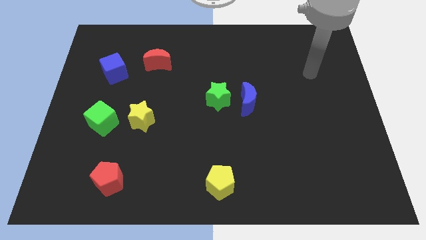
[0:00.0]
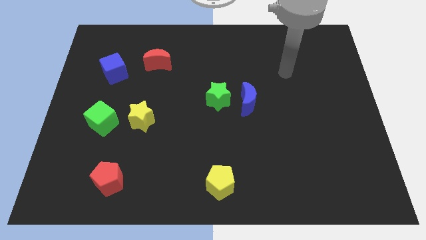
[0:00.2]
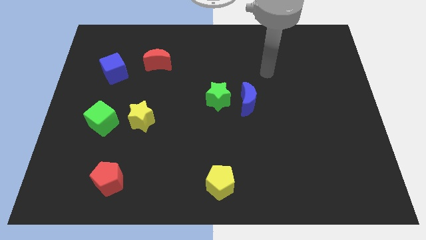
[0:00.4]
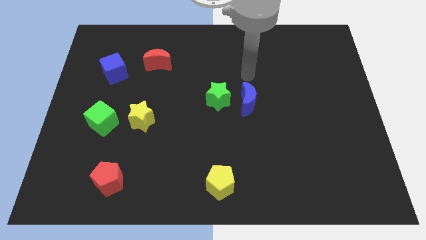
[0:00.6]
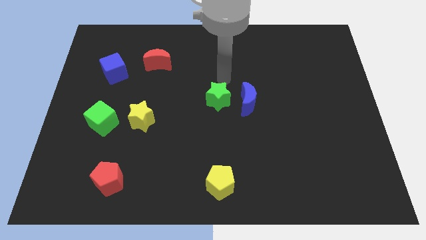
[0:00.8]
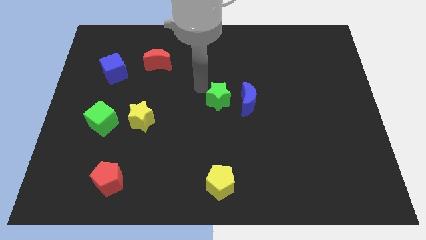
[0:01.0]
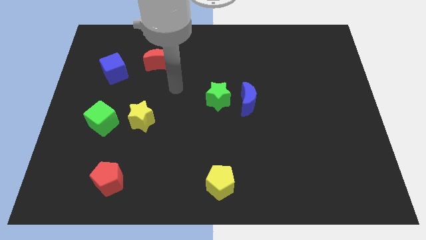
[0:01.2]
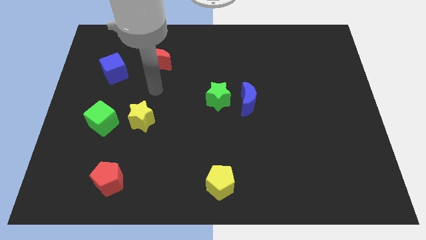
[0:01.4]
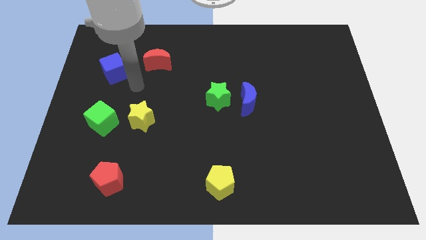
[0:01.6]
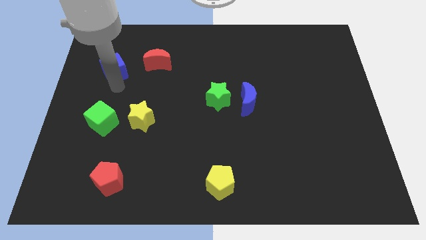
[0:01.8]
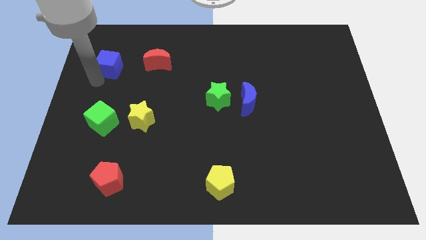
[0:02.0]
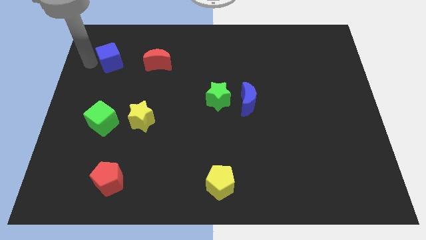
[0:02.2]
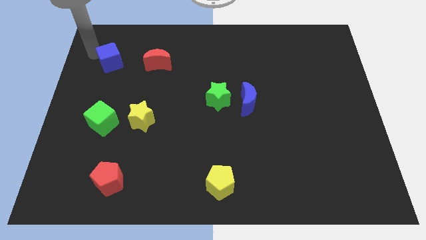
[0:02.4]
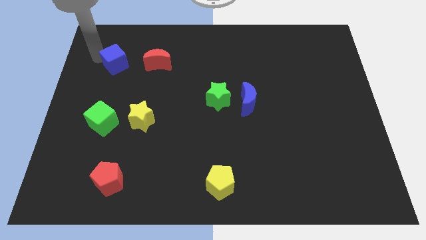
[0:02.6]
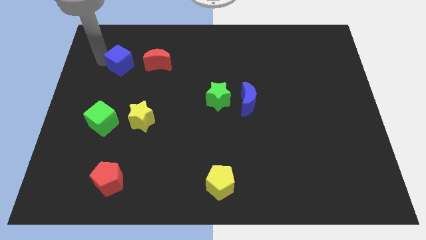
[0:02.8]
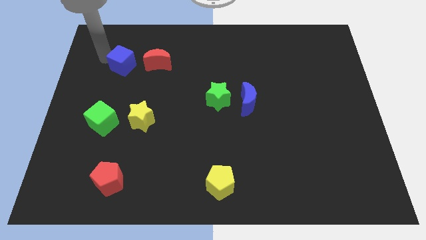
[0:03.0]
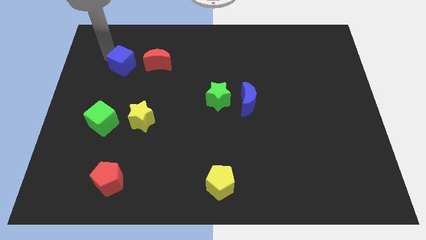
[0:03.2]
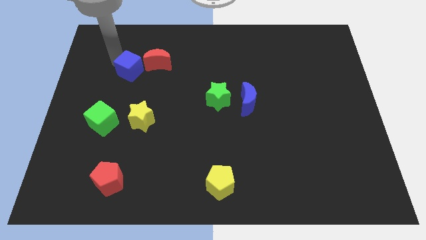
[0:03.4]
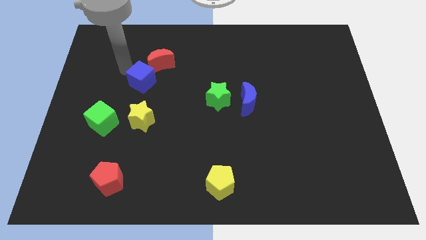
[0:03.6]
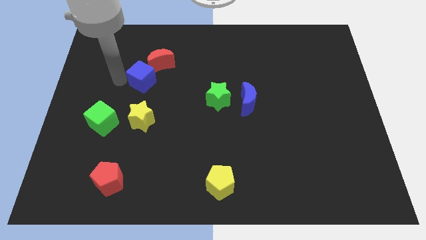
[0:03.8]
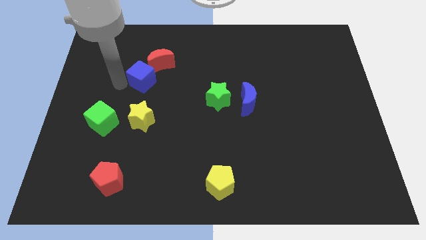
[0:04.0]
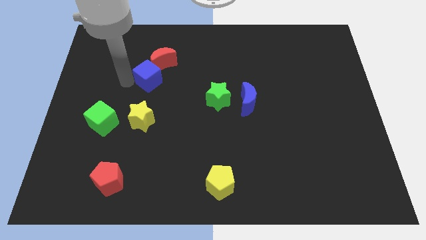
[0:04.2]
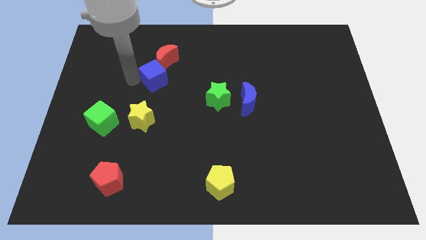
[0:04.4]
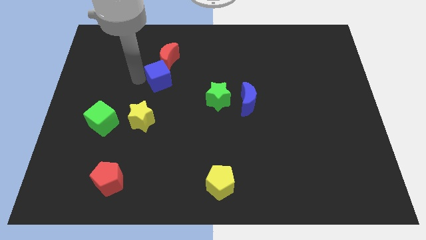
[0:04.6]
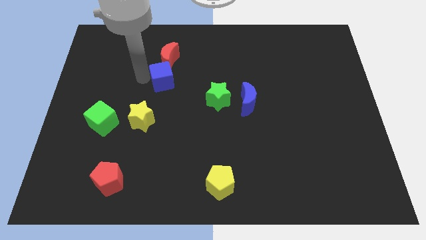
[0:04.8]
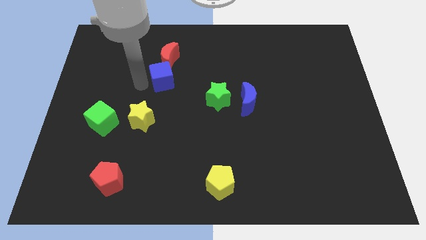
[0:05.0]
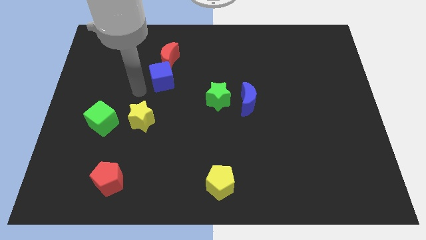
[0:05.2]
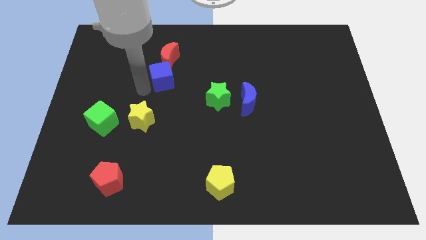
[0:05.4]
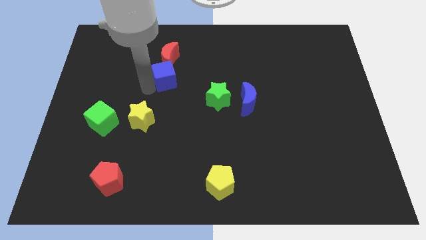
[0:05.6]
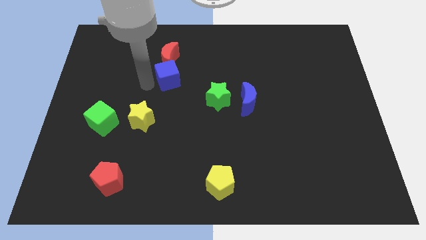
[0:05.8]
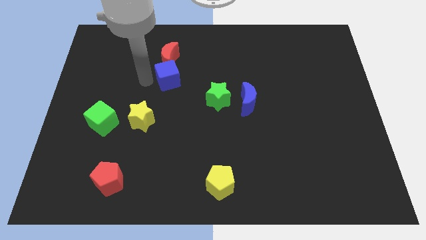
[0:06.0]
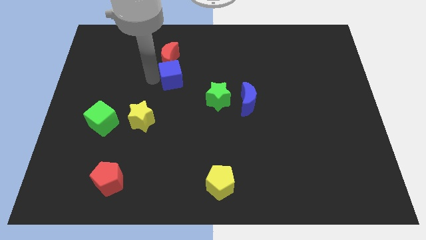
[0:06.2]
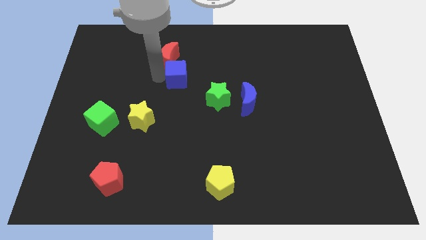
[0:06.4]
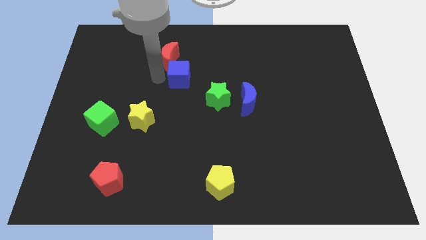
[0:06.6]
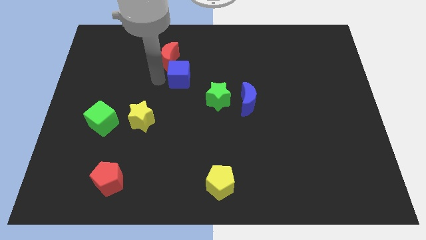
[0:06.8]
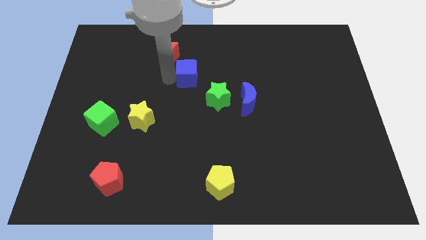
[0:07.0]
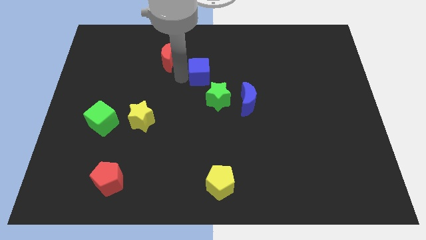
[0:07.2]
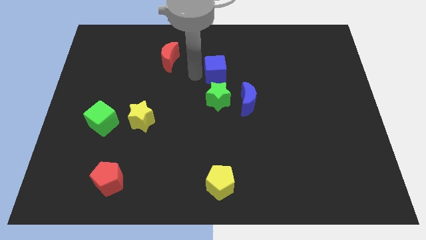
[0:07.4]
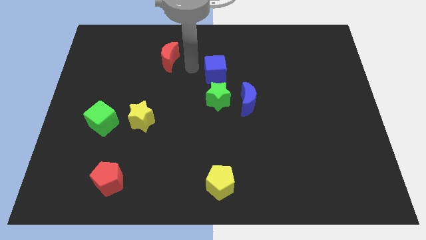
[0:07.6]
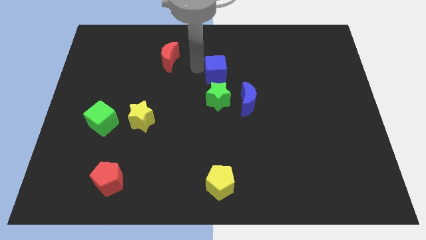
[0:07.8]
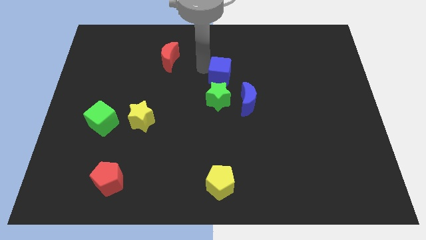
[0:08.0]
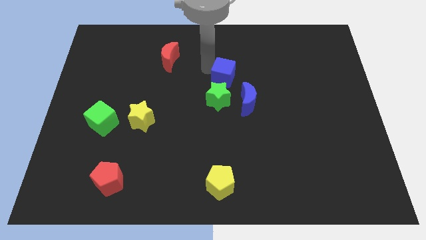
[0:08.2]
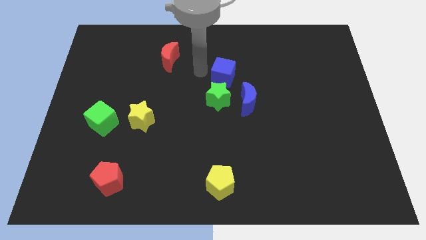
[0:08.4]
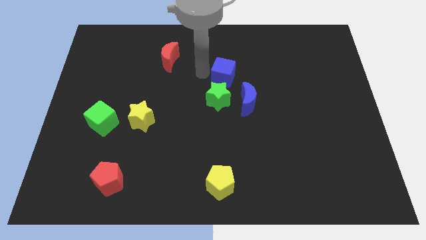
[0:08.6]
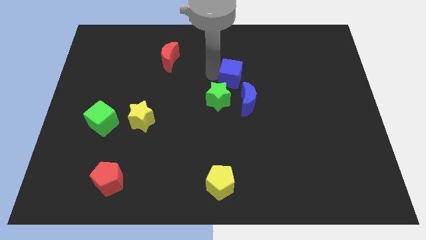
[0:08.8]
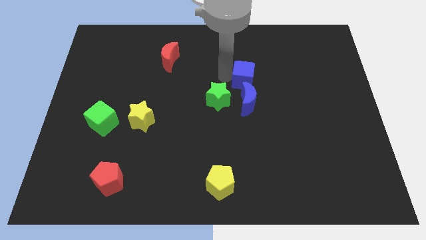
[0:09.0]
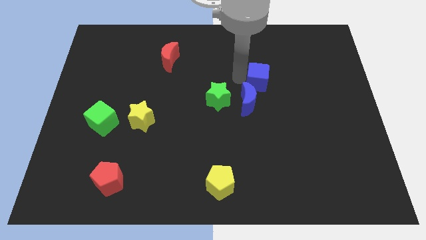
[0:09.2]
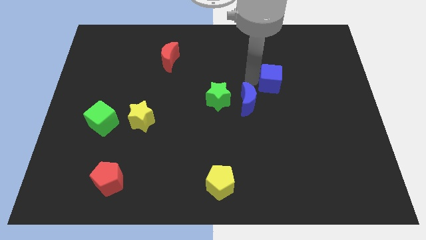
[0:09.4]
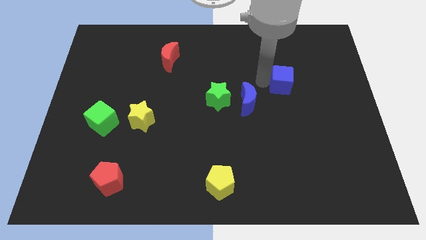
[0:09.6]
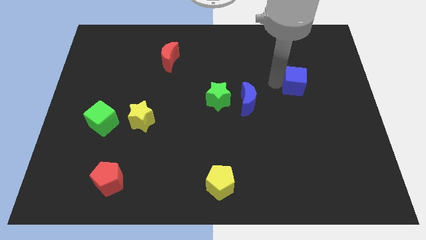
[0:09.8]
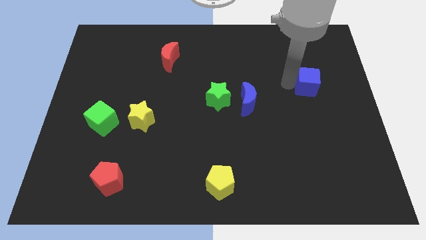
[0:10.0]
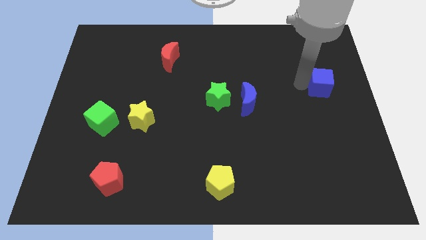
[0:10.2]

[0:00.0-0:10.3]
slide the blue cube to the right side of the board

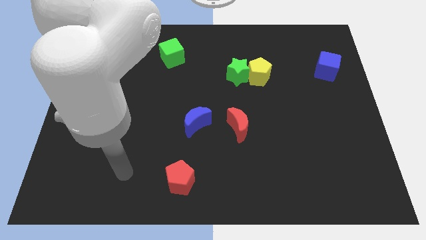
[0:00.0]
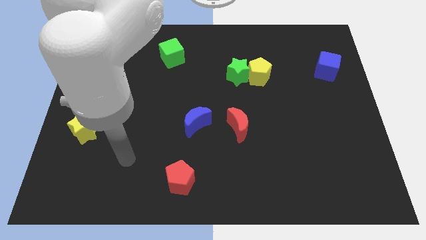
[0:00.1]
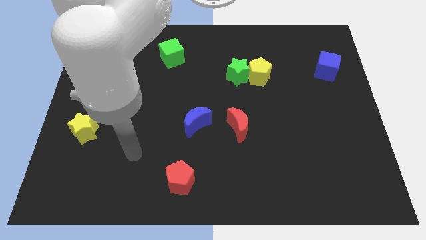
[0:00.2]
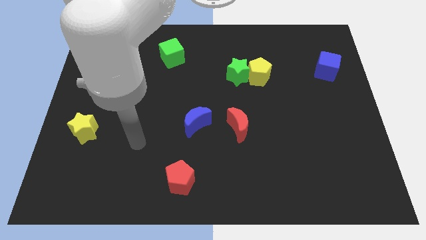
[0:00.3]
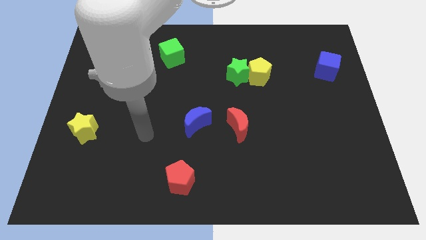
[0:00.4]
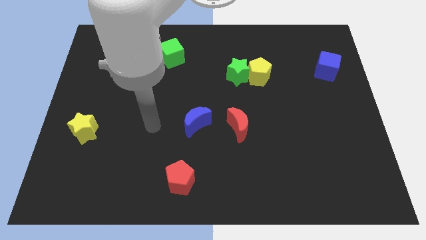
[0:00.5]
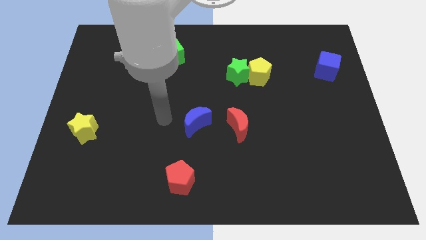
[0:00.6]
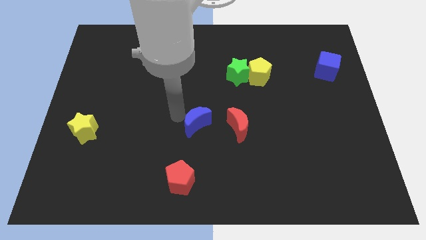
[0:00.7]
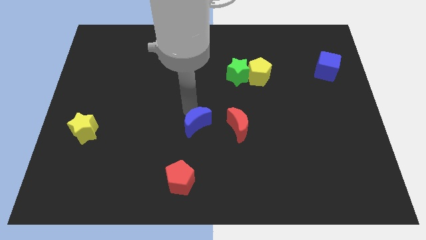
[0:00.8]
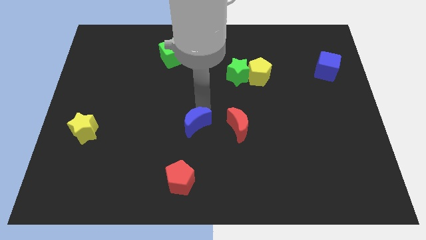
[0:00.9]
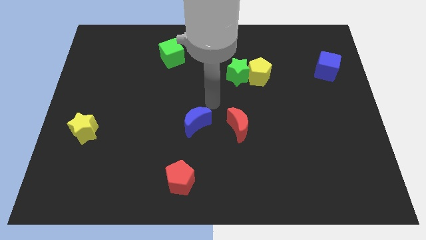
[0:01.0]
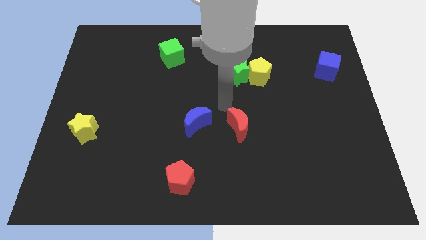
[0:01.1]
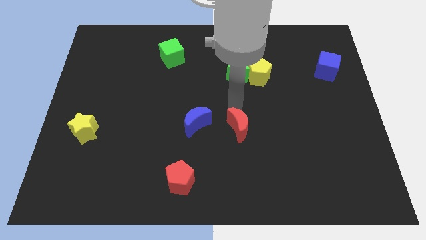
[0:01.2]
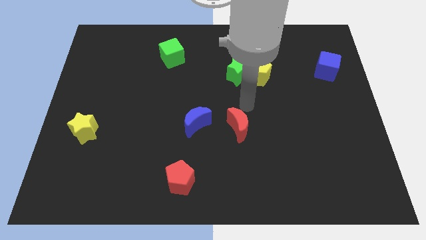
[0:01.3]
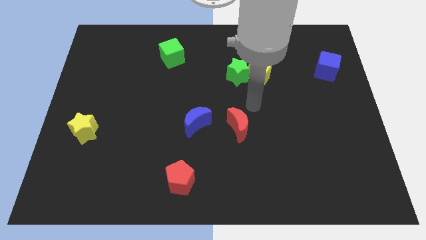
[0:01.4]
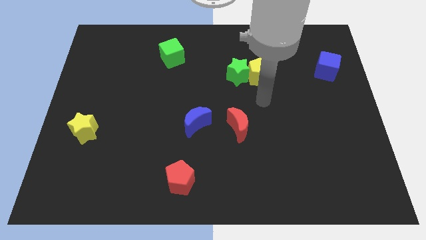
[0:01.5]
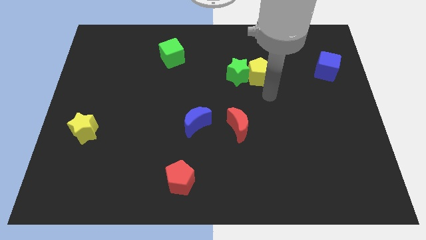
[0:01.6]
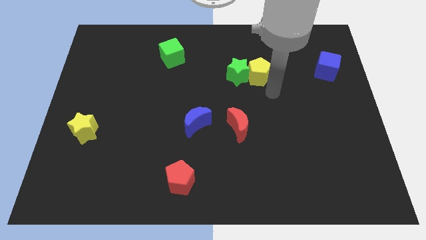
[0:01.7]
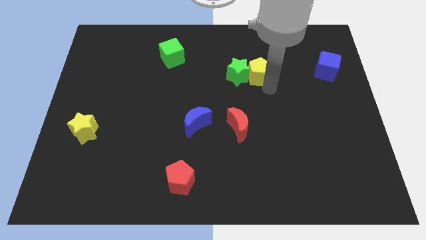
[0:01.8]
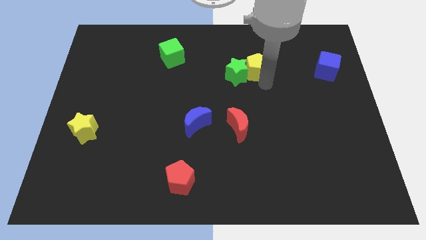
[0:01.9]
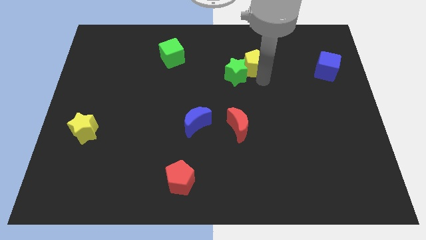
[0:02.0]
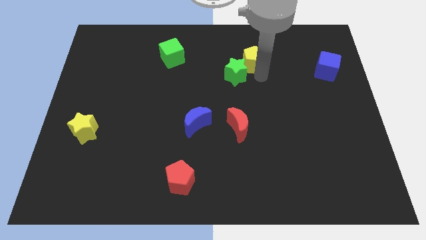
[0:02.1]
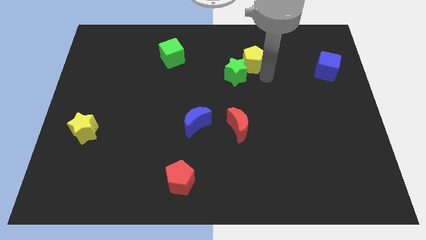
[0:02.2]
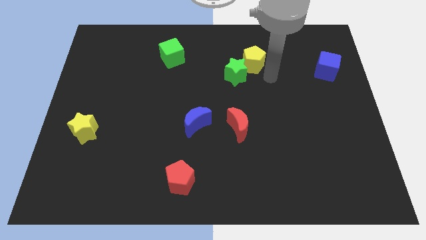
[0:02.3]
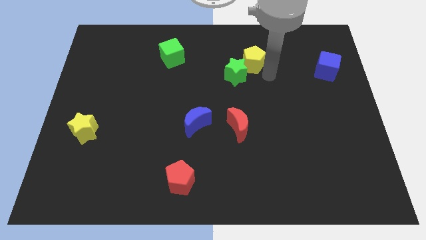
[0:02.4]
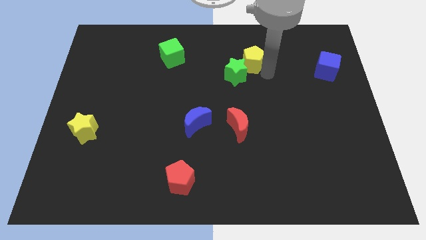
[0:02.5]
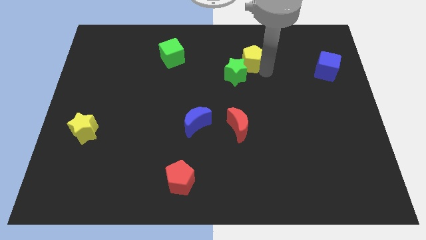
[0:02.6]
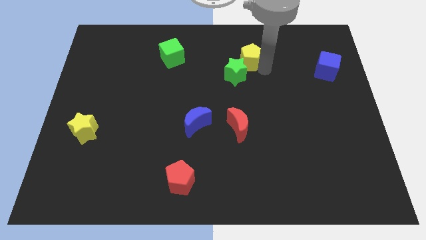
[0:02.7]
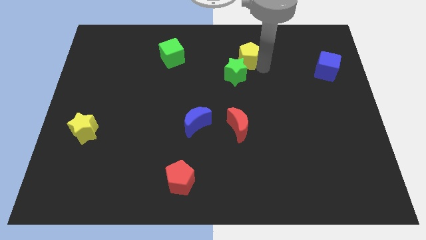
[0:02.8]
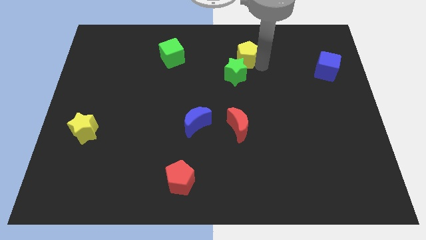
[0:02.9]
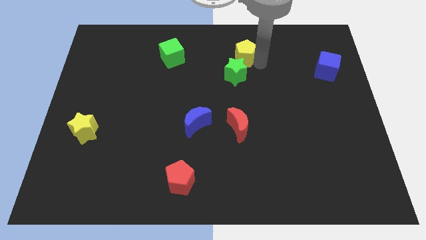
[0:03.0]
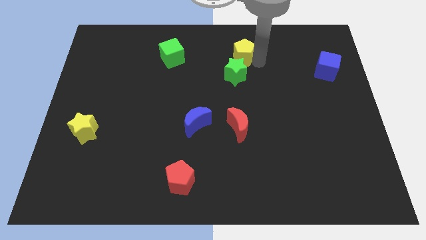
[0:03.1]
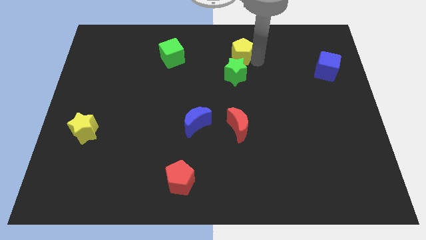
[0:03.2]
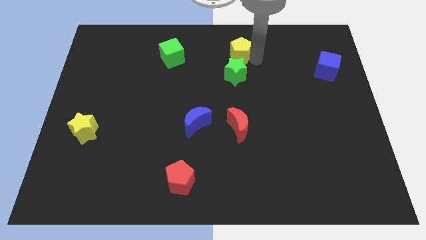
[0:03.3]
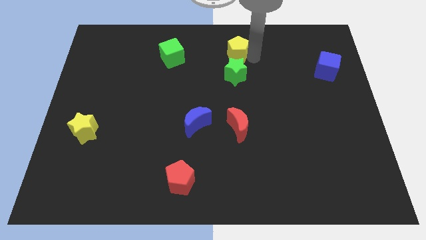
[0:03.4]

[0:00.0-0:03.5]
push the yellow pentagon to the towards your base
